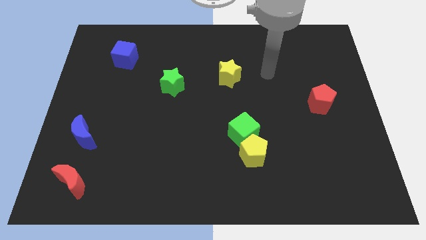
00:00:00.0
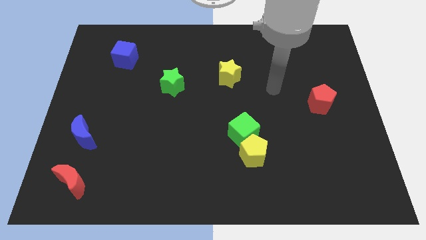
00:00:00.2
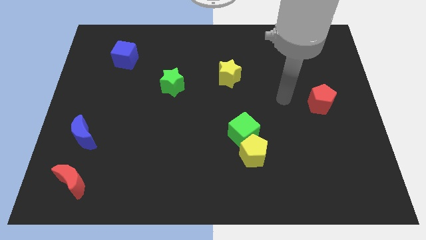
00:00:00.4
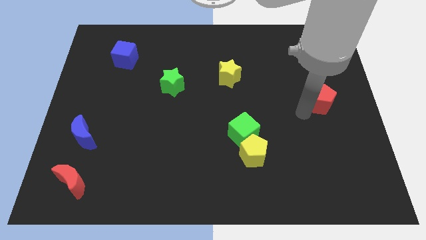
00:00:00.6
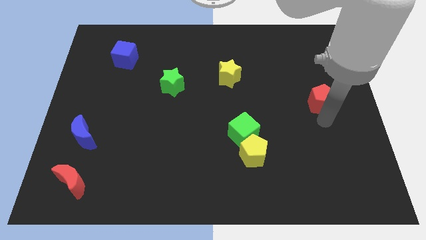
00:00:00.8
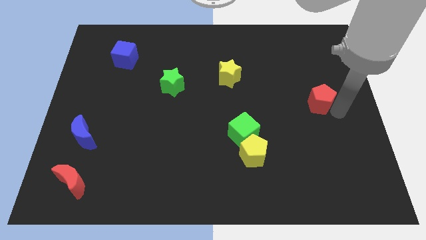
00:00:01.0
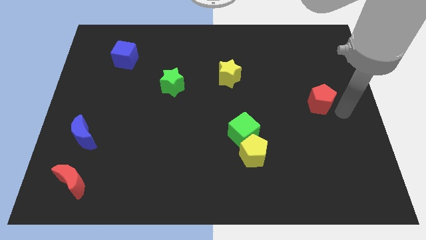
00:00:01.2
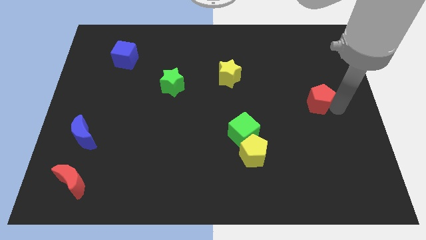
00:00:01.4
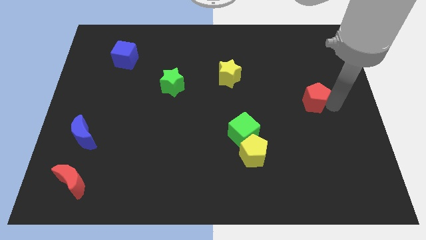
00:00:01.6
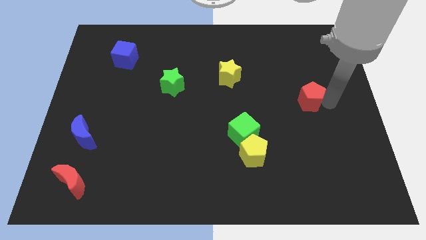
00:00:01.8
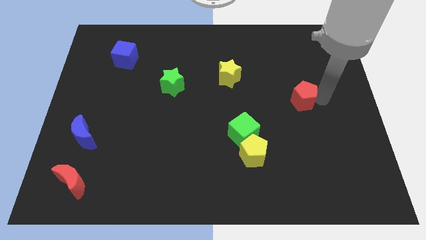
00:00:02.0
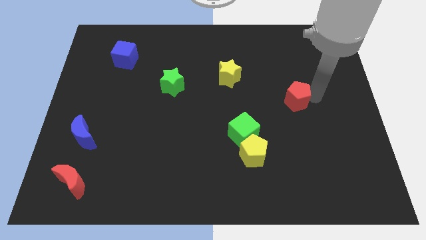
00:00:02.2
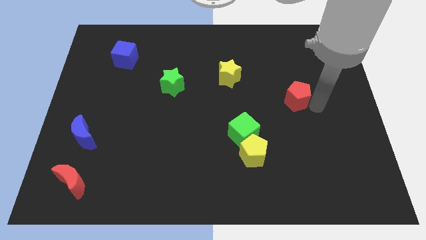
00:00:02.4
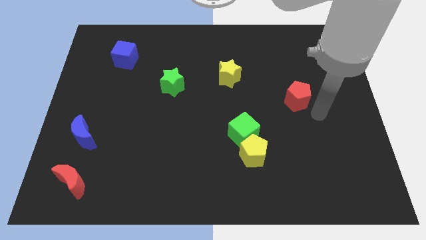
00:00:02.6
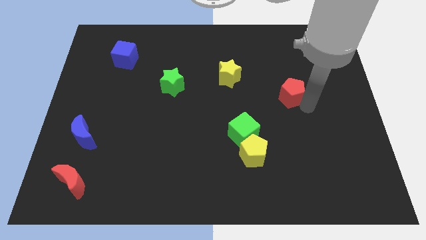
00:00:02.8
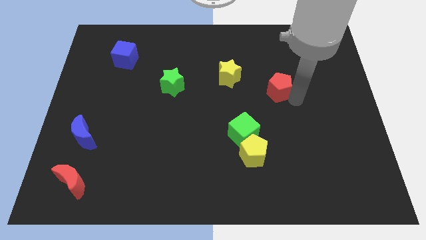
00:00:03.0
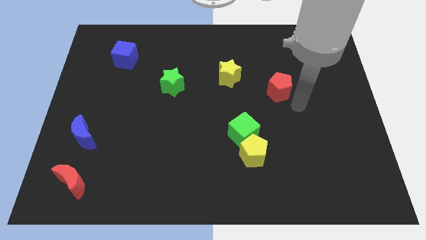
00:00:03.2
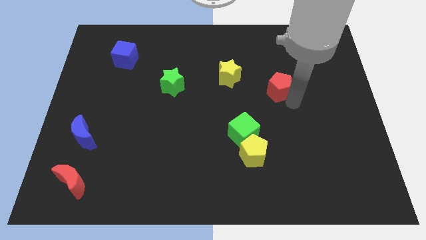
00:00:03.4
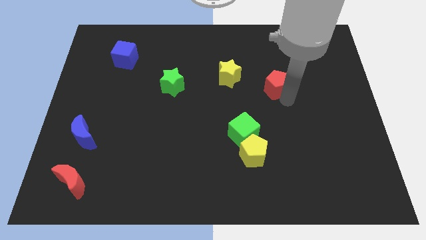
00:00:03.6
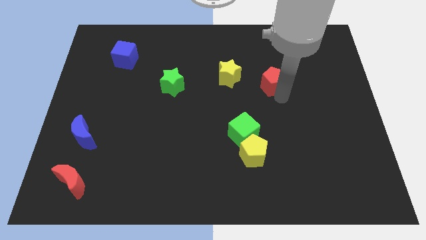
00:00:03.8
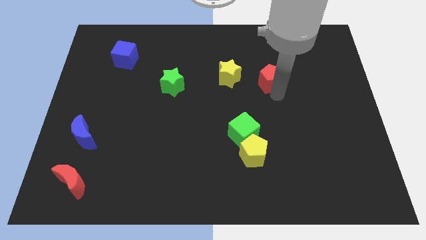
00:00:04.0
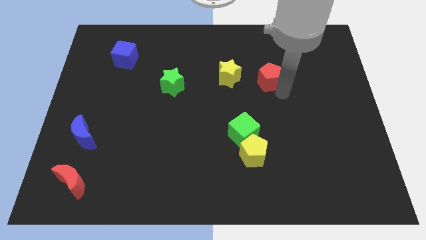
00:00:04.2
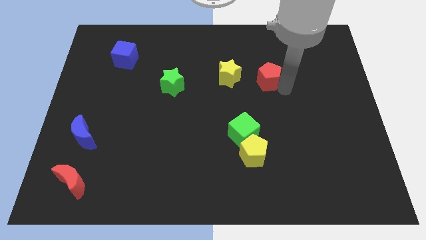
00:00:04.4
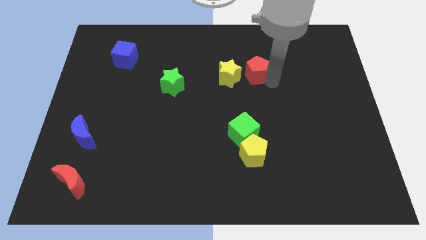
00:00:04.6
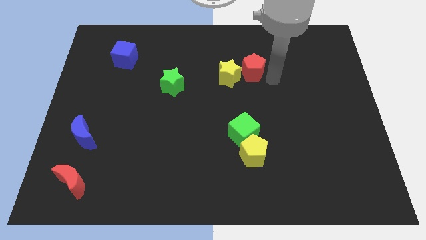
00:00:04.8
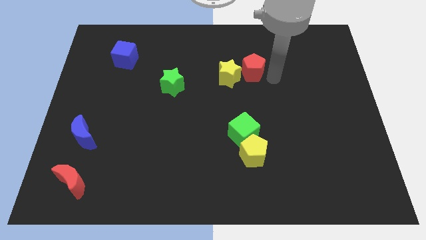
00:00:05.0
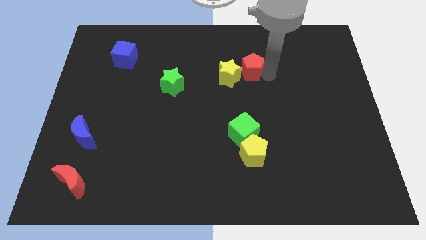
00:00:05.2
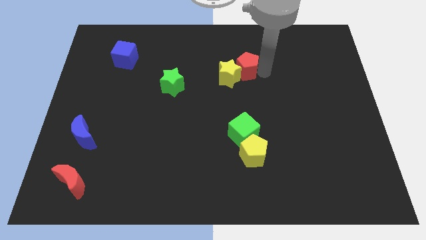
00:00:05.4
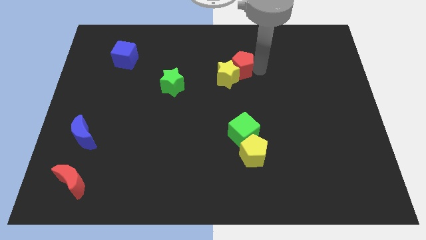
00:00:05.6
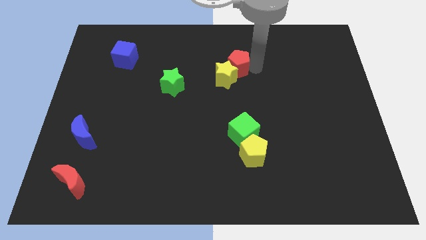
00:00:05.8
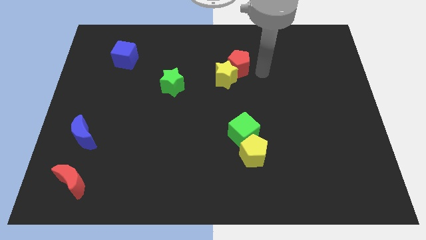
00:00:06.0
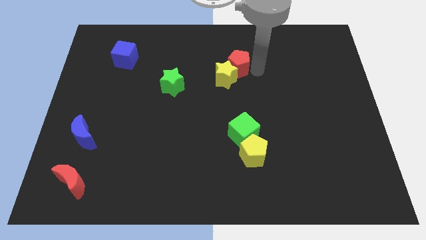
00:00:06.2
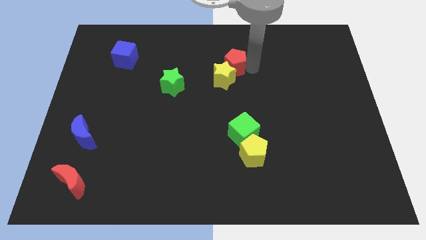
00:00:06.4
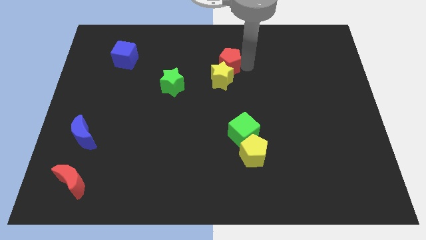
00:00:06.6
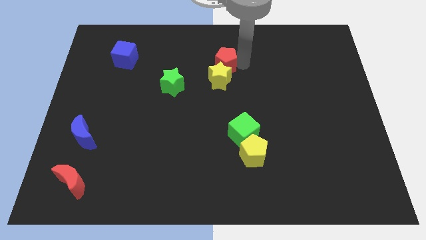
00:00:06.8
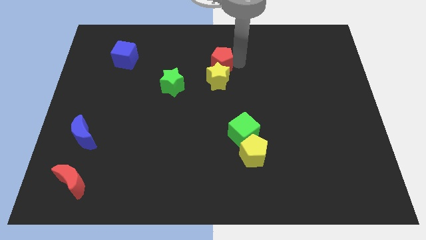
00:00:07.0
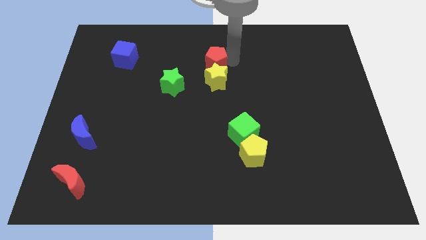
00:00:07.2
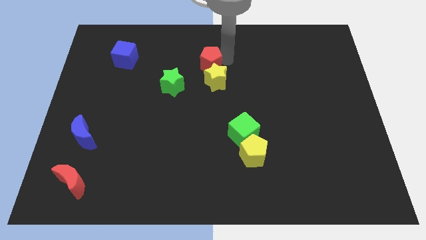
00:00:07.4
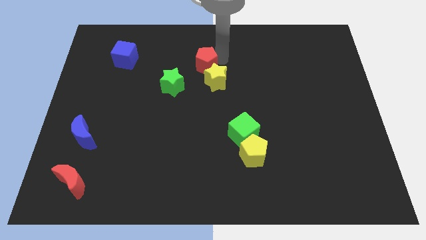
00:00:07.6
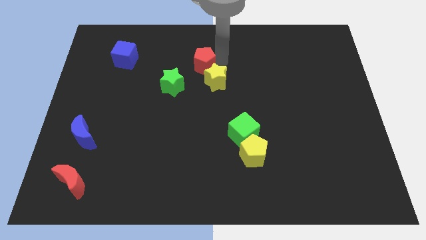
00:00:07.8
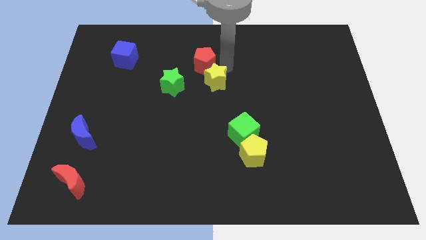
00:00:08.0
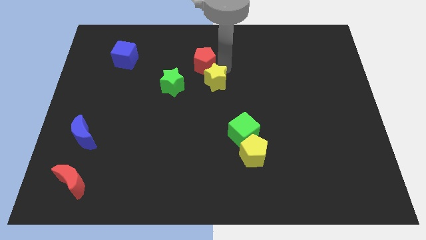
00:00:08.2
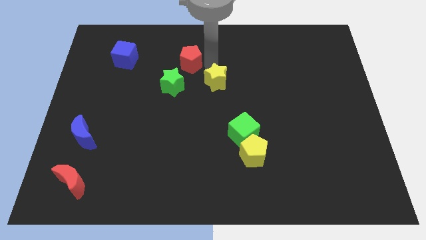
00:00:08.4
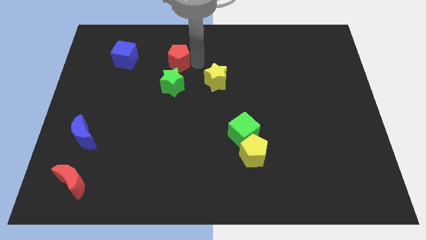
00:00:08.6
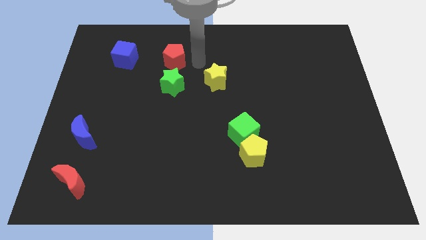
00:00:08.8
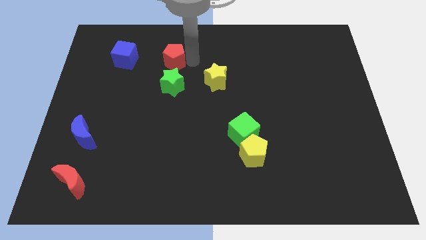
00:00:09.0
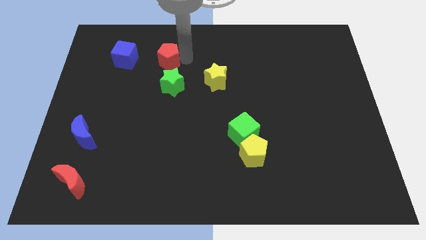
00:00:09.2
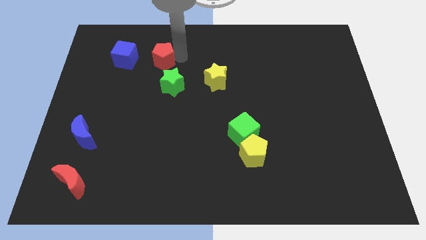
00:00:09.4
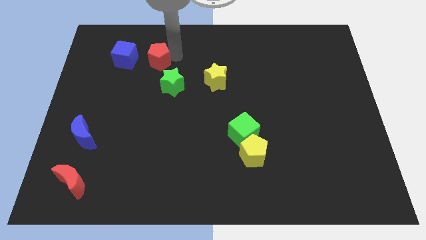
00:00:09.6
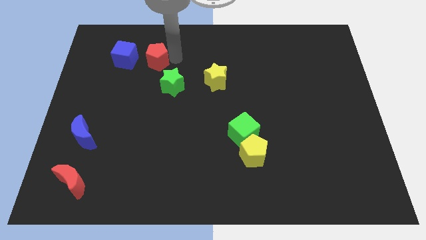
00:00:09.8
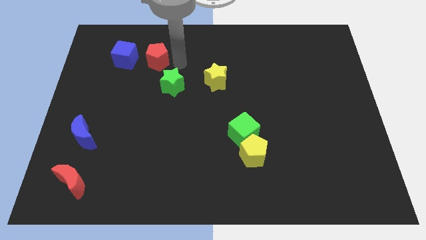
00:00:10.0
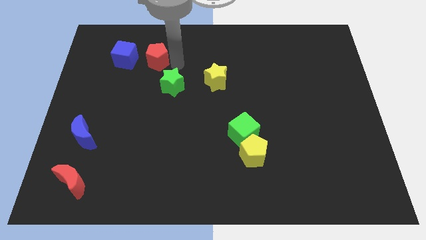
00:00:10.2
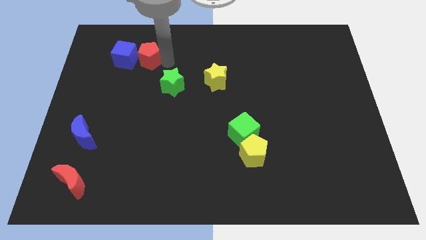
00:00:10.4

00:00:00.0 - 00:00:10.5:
move the red pentagon close to the blue cube

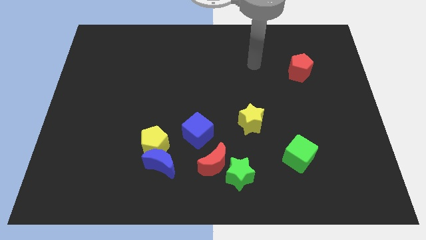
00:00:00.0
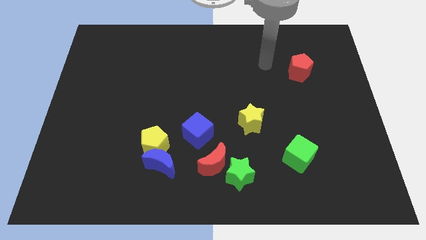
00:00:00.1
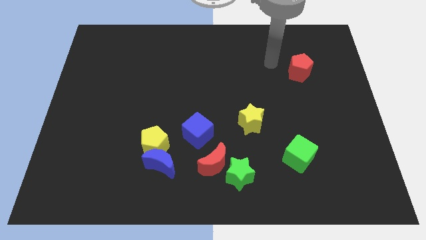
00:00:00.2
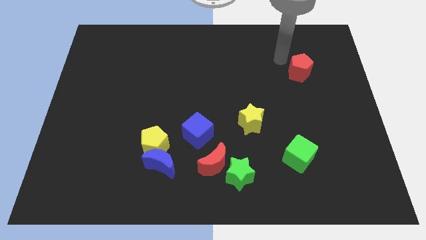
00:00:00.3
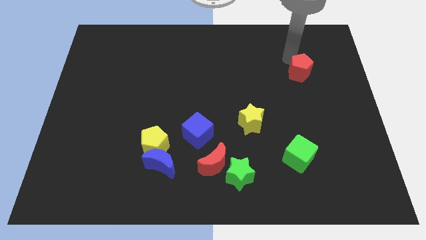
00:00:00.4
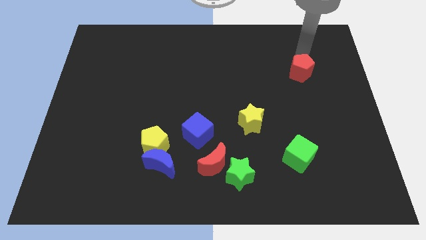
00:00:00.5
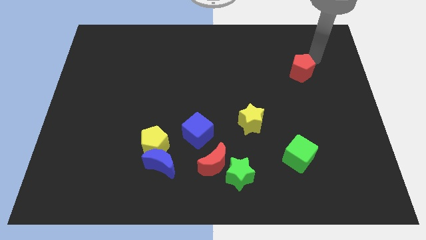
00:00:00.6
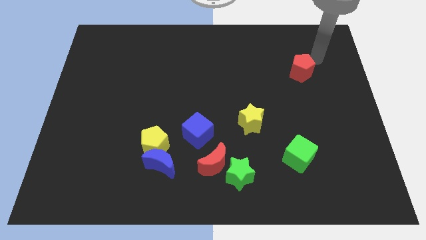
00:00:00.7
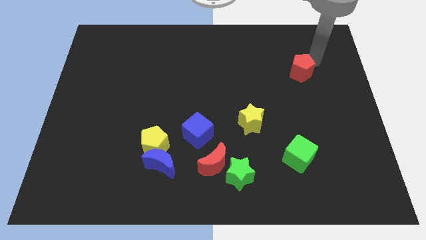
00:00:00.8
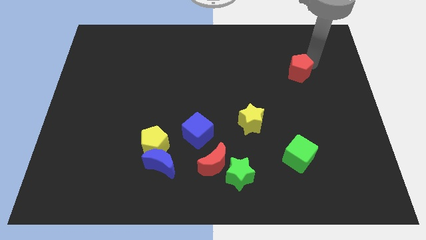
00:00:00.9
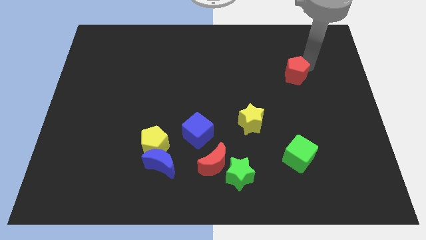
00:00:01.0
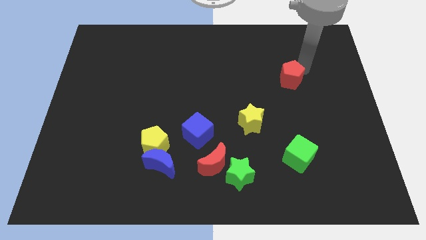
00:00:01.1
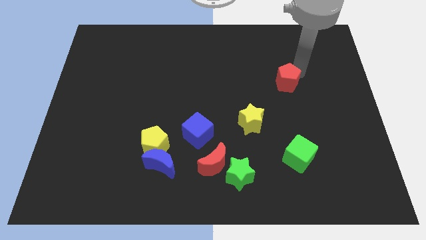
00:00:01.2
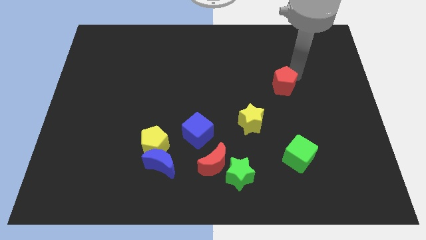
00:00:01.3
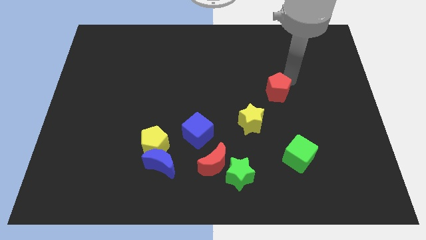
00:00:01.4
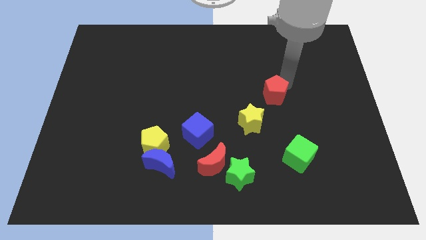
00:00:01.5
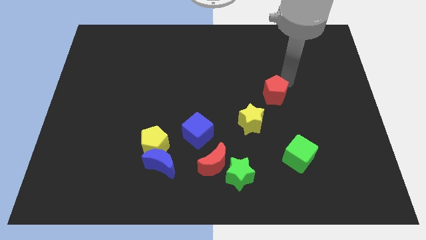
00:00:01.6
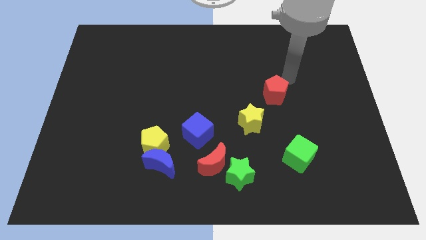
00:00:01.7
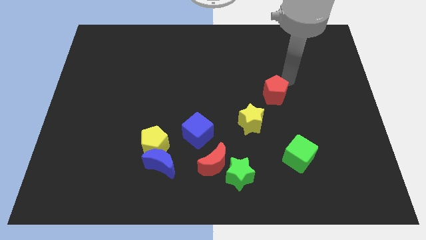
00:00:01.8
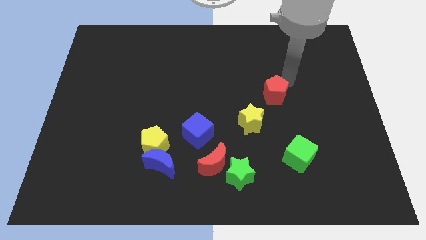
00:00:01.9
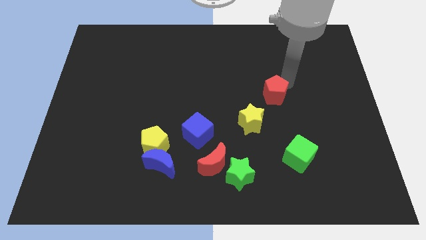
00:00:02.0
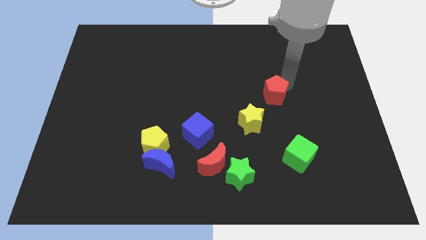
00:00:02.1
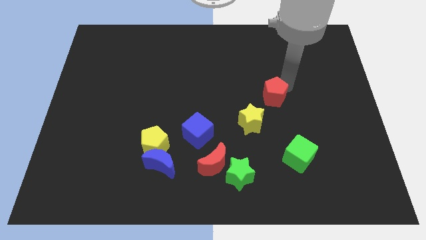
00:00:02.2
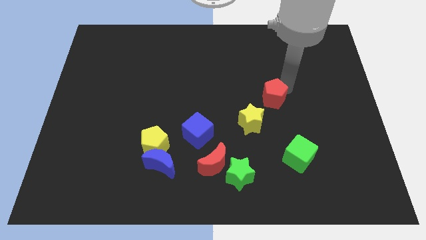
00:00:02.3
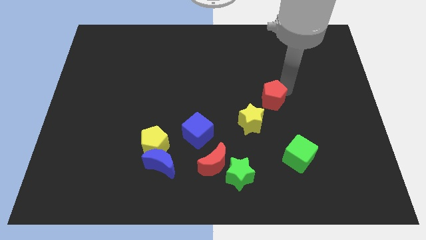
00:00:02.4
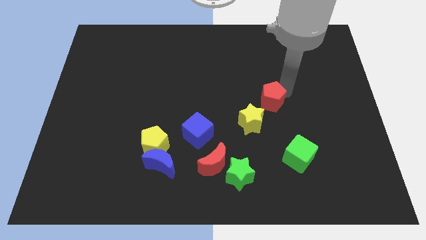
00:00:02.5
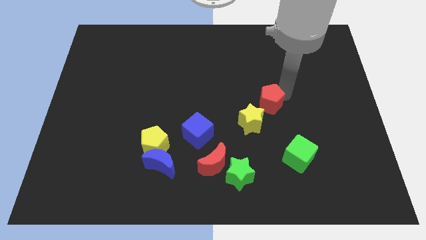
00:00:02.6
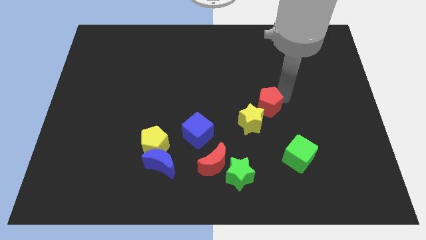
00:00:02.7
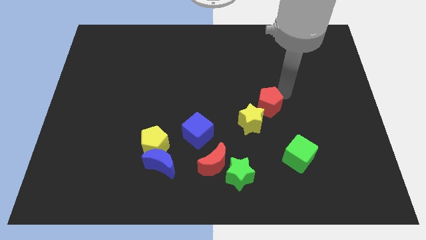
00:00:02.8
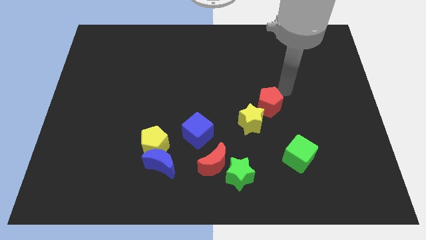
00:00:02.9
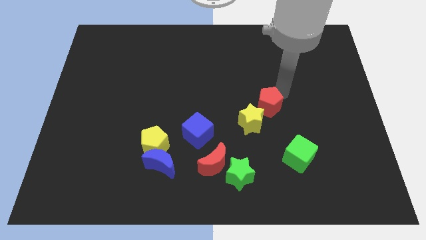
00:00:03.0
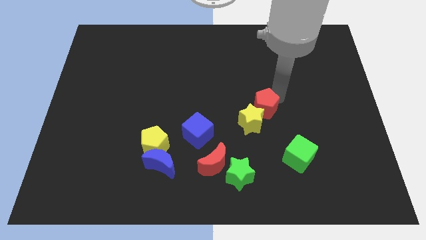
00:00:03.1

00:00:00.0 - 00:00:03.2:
move the red pentagon to the yellow star

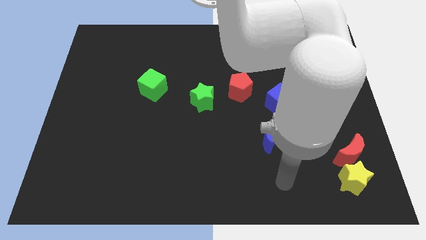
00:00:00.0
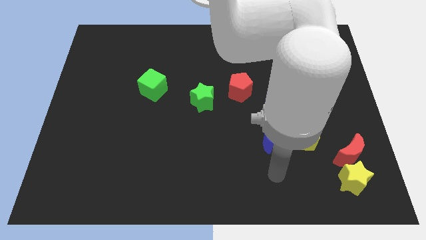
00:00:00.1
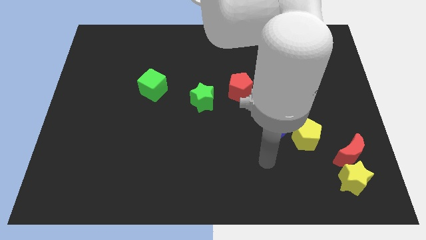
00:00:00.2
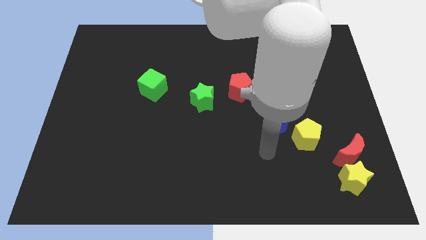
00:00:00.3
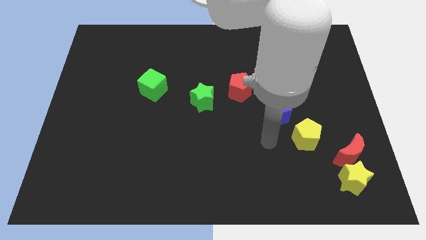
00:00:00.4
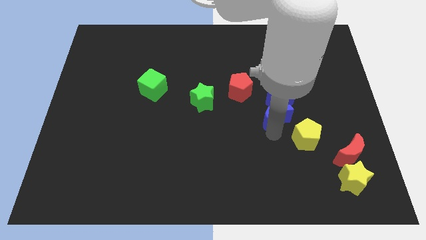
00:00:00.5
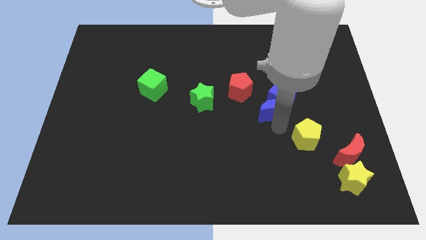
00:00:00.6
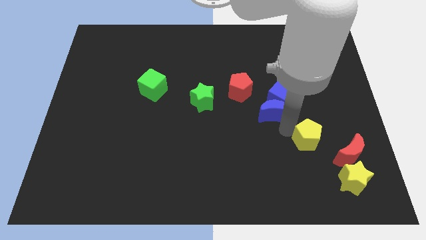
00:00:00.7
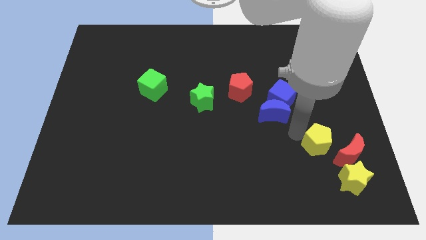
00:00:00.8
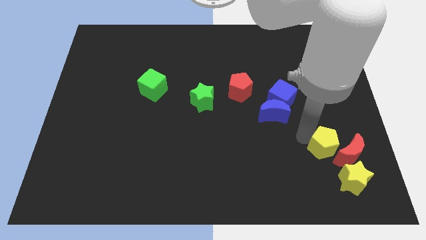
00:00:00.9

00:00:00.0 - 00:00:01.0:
move the yellow pentagon to the red moon
